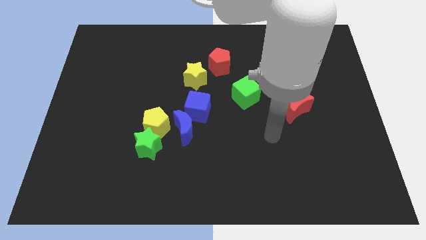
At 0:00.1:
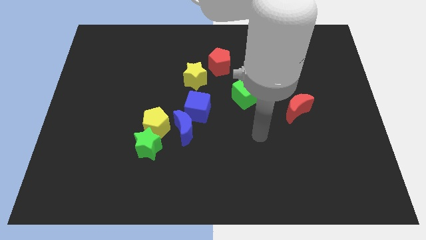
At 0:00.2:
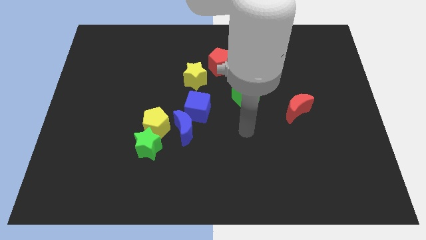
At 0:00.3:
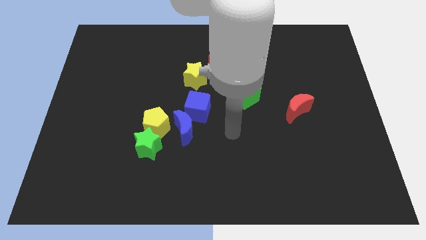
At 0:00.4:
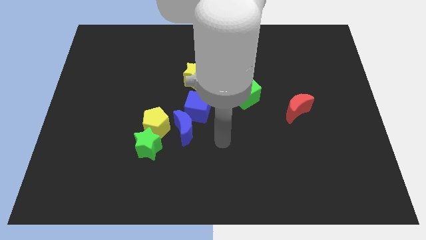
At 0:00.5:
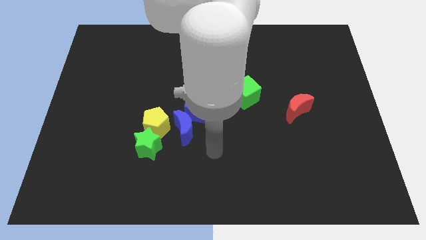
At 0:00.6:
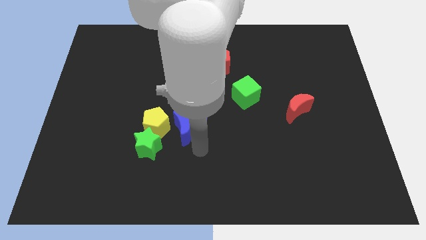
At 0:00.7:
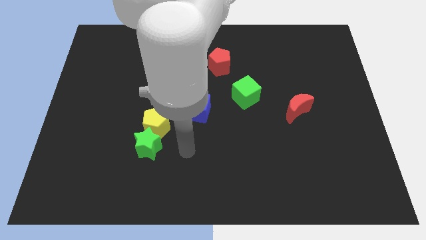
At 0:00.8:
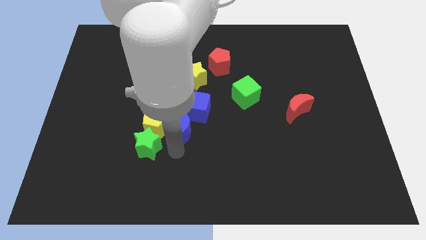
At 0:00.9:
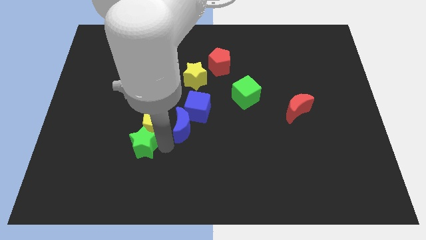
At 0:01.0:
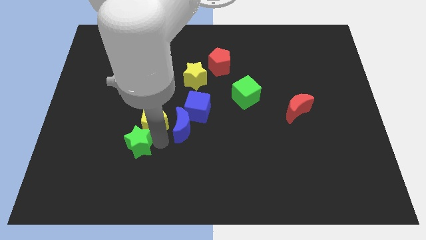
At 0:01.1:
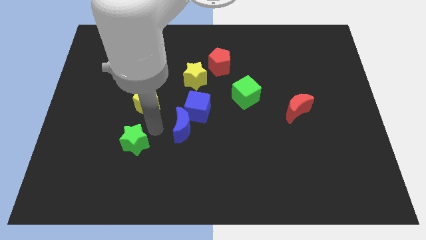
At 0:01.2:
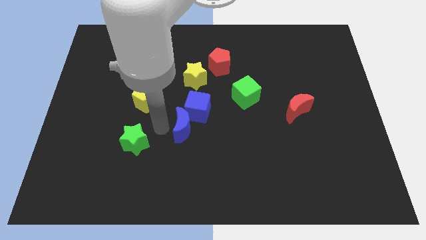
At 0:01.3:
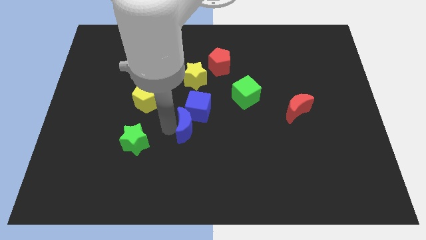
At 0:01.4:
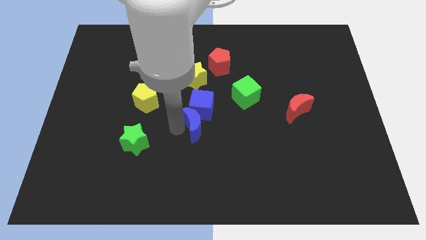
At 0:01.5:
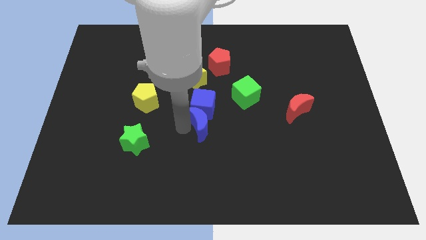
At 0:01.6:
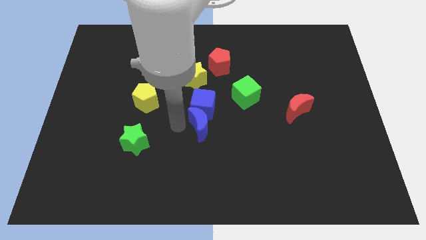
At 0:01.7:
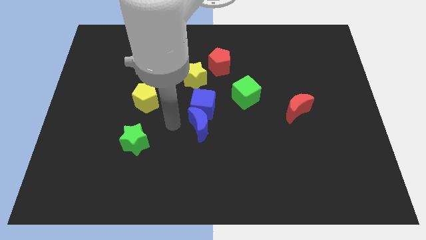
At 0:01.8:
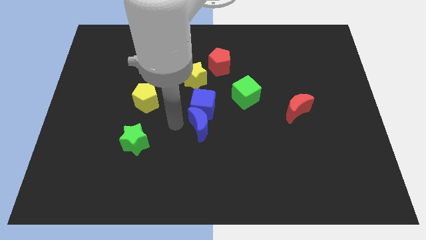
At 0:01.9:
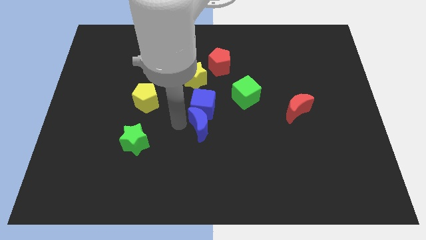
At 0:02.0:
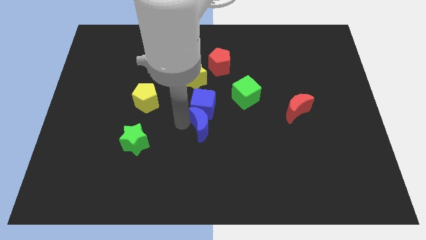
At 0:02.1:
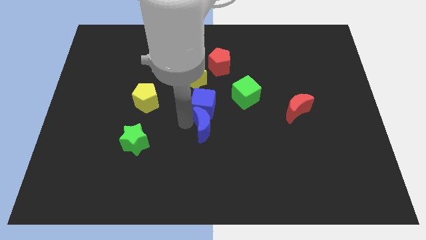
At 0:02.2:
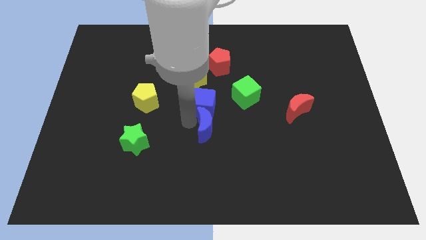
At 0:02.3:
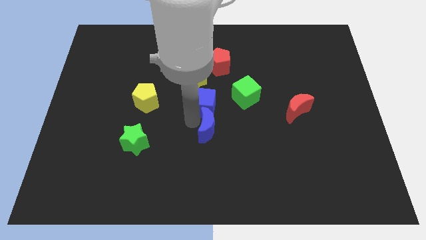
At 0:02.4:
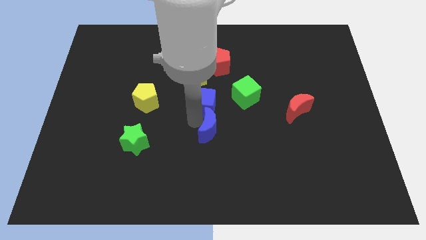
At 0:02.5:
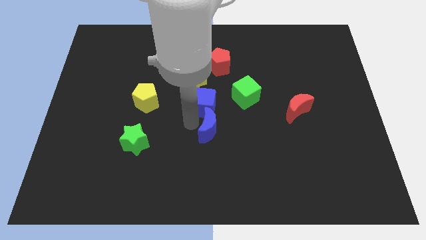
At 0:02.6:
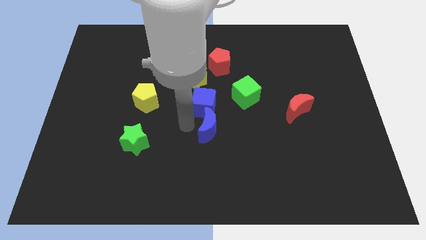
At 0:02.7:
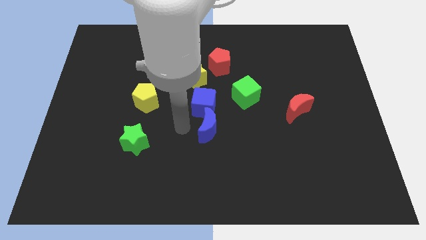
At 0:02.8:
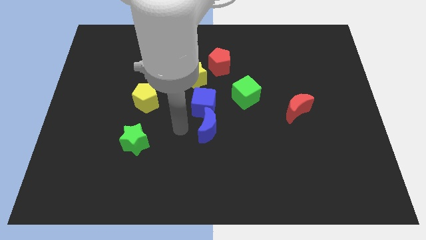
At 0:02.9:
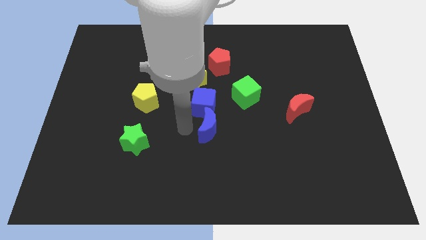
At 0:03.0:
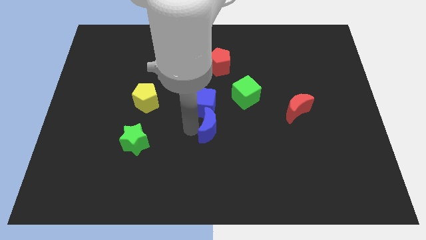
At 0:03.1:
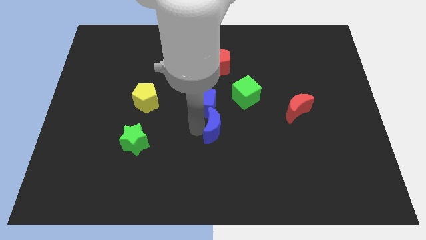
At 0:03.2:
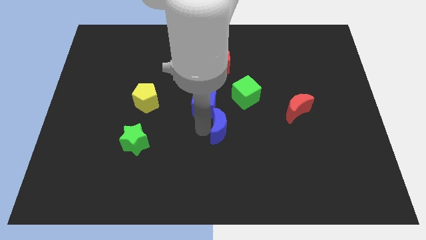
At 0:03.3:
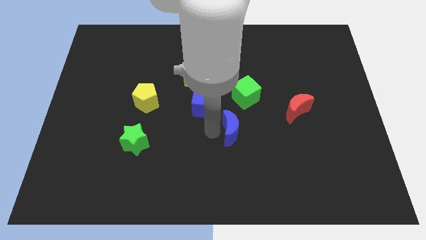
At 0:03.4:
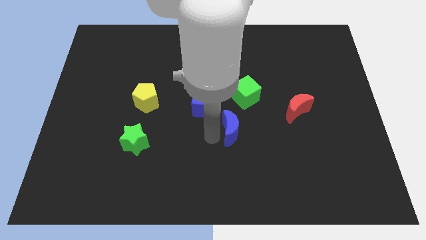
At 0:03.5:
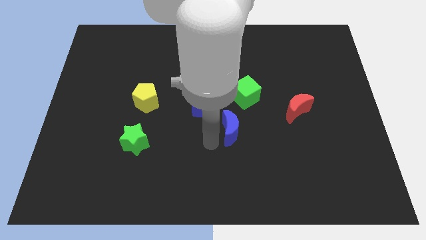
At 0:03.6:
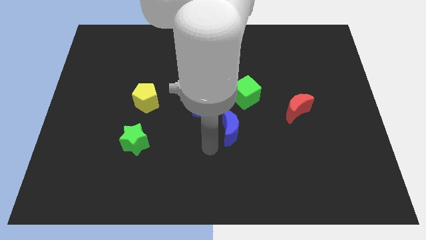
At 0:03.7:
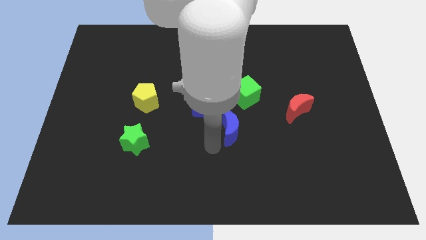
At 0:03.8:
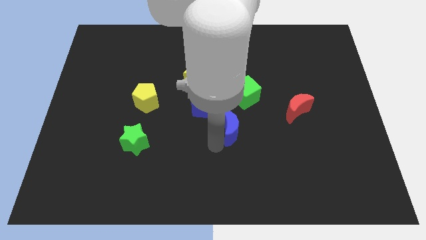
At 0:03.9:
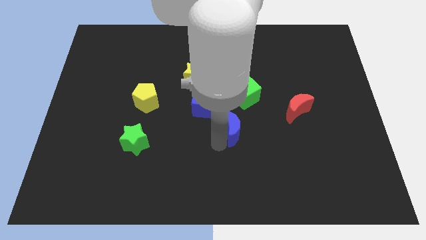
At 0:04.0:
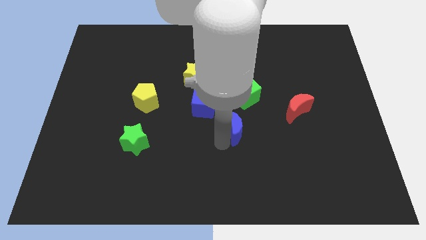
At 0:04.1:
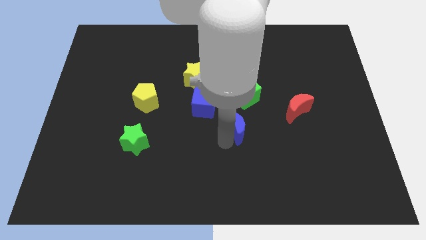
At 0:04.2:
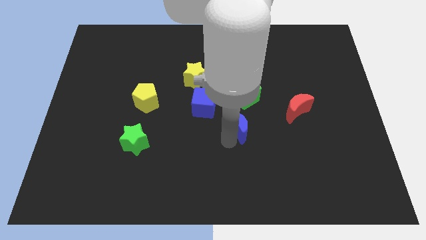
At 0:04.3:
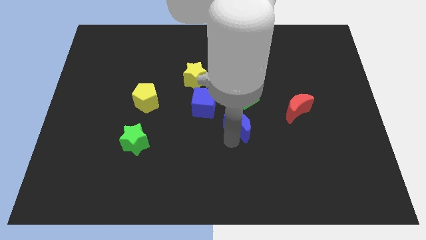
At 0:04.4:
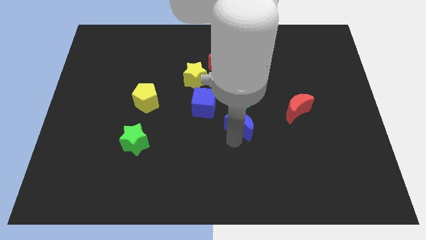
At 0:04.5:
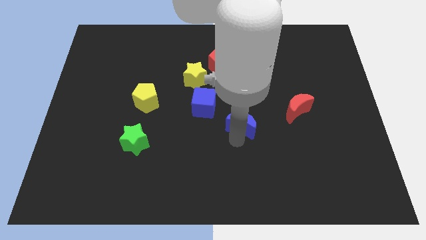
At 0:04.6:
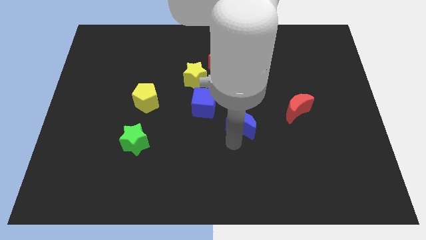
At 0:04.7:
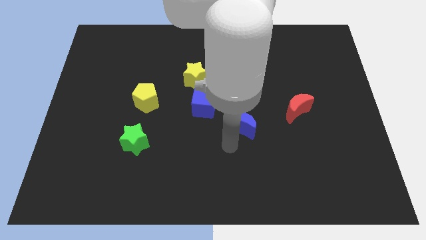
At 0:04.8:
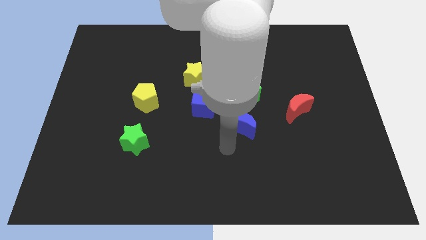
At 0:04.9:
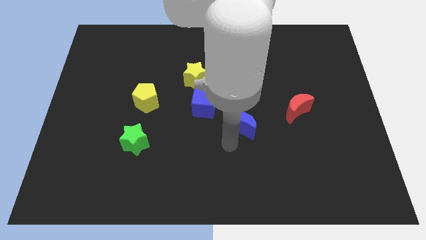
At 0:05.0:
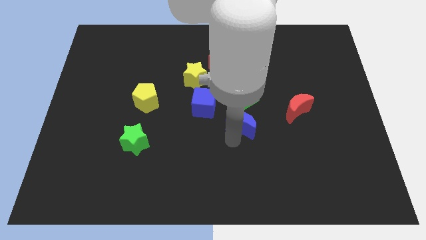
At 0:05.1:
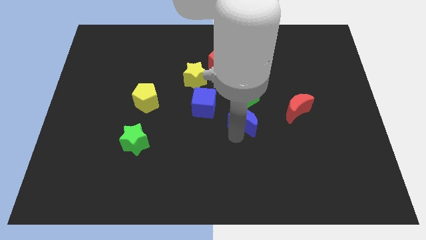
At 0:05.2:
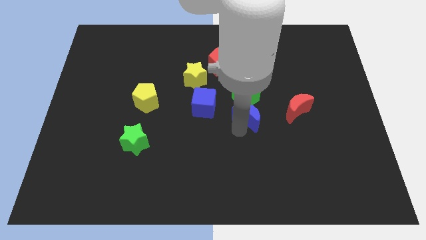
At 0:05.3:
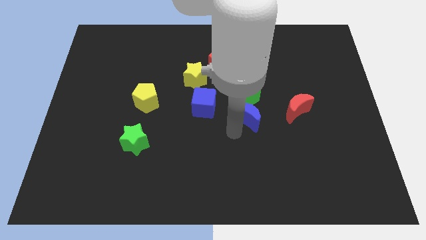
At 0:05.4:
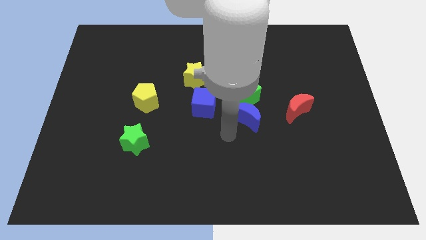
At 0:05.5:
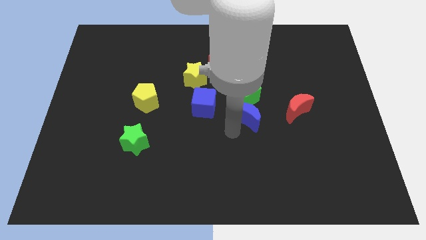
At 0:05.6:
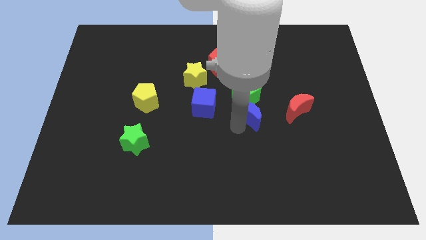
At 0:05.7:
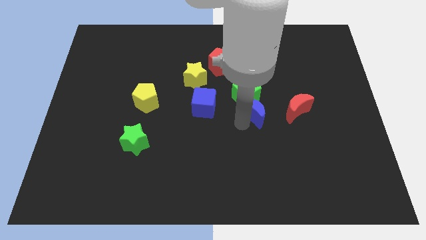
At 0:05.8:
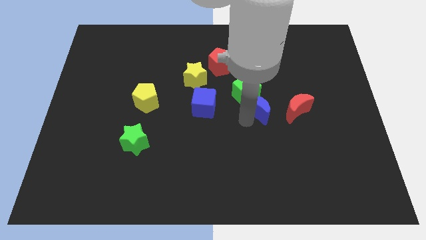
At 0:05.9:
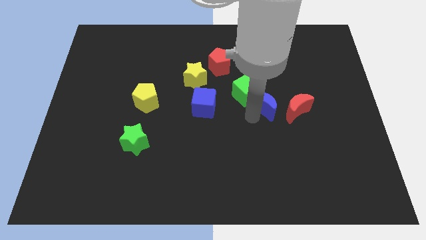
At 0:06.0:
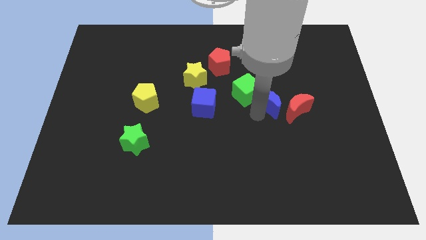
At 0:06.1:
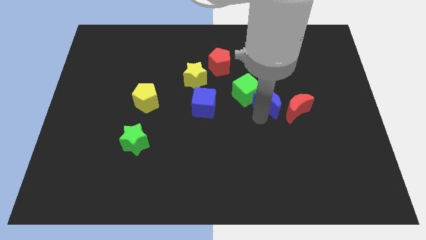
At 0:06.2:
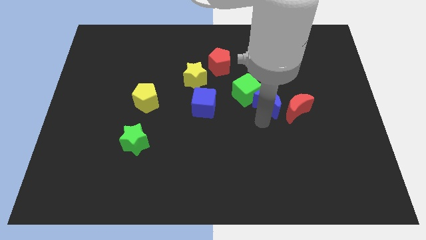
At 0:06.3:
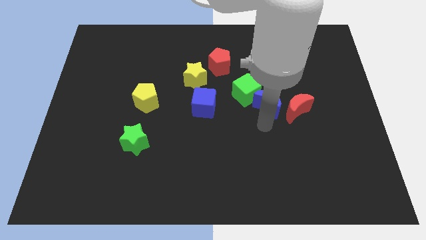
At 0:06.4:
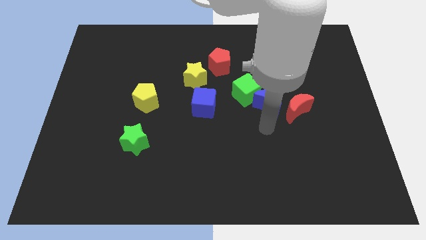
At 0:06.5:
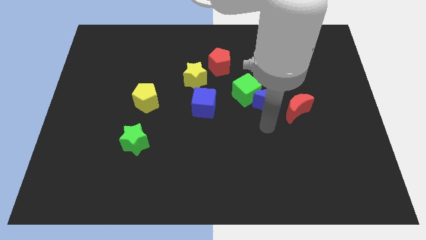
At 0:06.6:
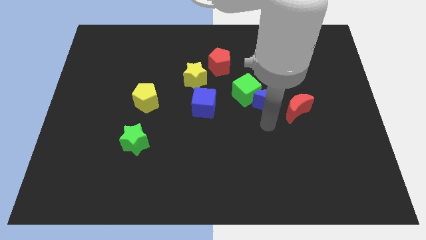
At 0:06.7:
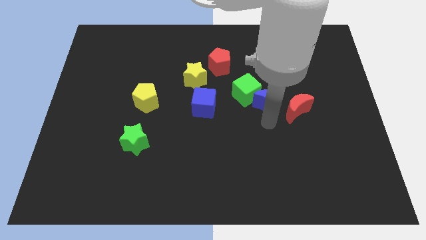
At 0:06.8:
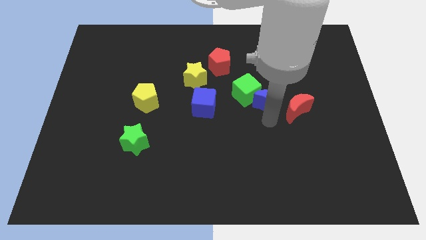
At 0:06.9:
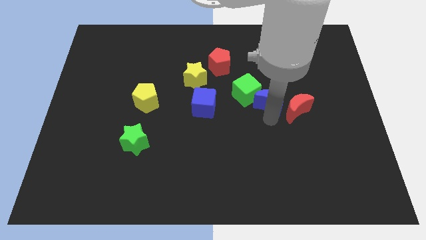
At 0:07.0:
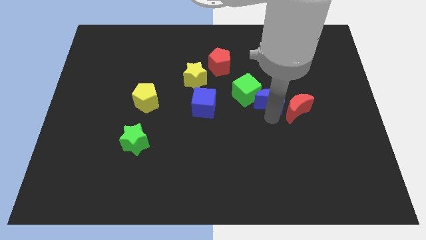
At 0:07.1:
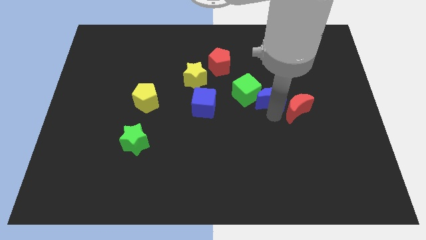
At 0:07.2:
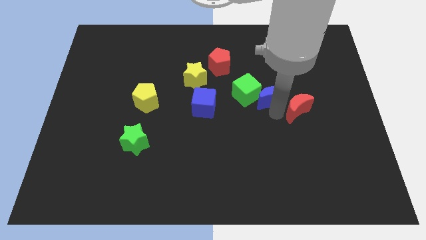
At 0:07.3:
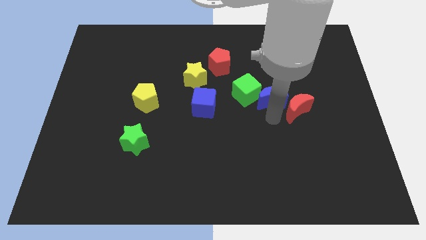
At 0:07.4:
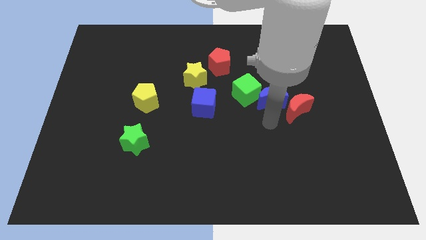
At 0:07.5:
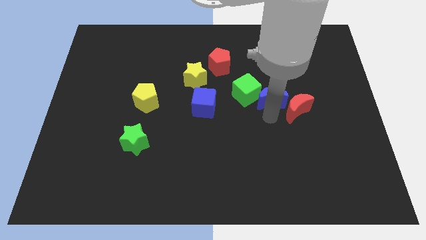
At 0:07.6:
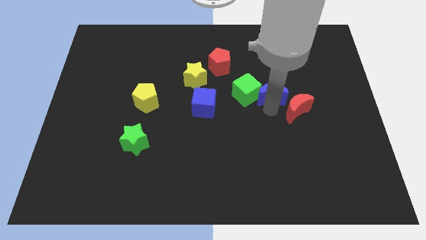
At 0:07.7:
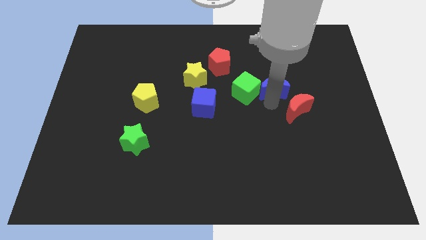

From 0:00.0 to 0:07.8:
push the blue moon diagonally upwards and right
